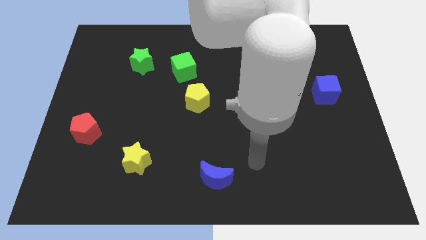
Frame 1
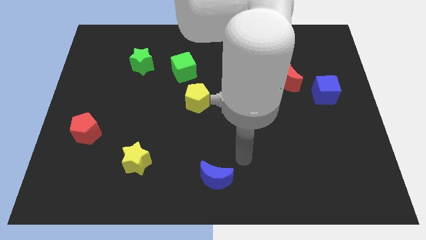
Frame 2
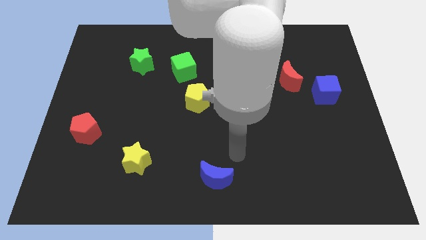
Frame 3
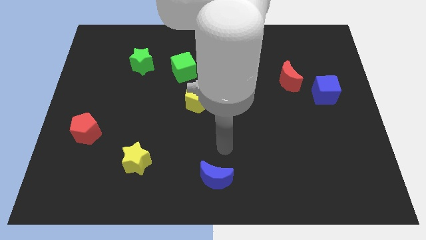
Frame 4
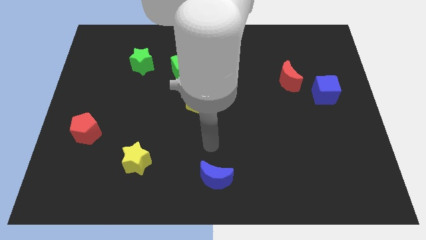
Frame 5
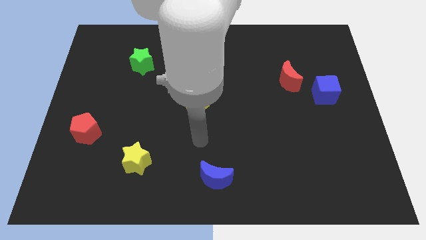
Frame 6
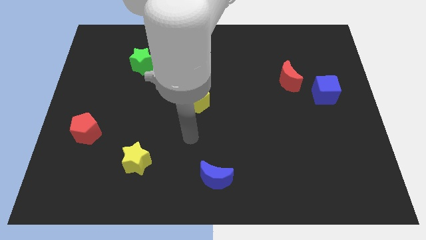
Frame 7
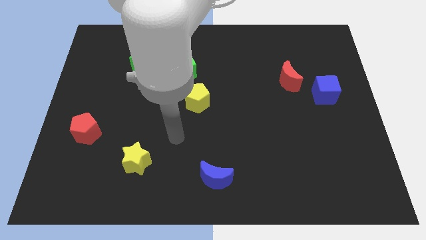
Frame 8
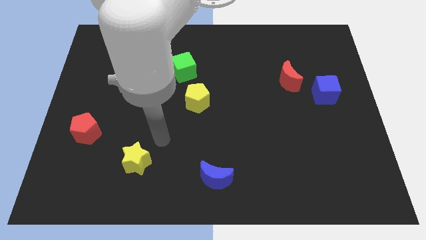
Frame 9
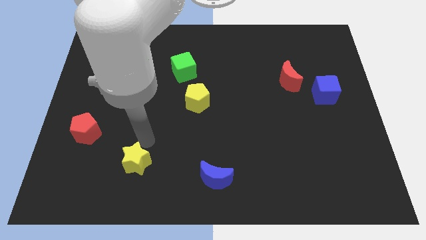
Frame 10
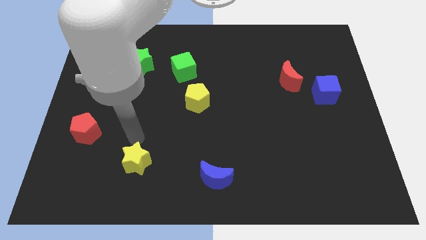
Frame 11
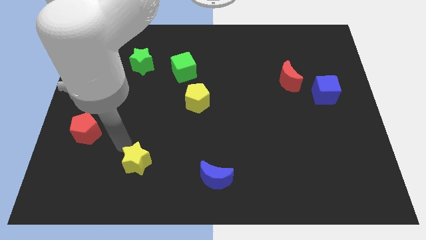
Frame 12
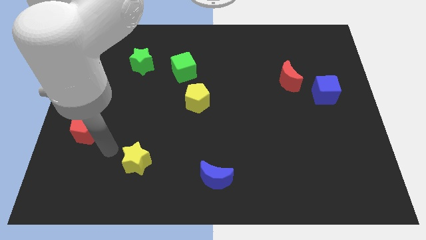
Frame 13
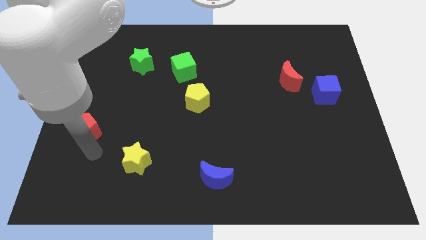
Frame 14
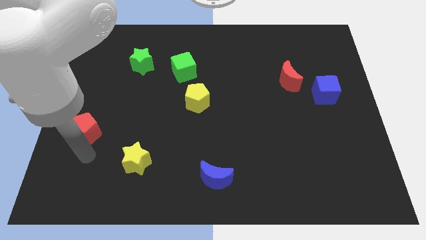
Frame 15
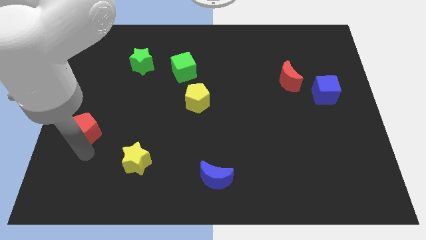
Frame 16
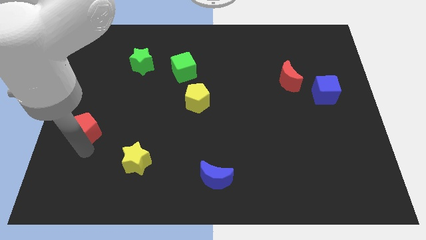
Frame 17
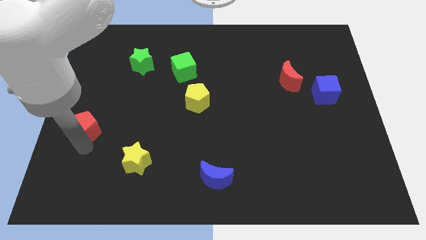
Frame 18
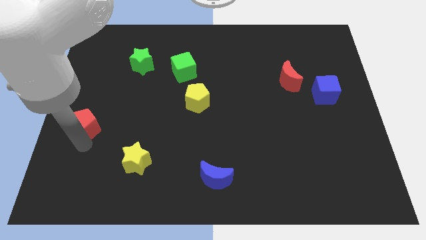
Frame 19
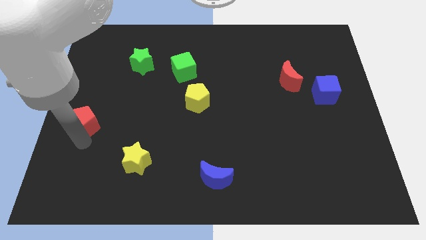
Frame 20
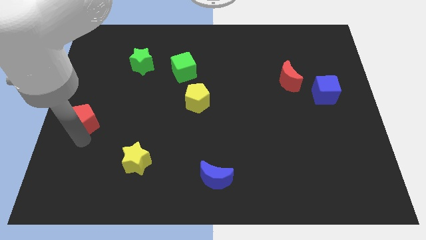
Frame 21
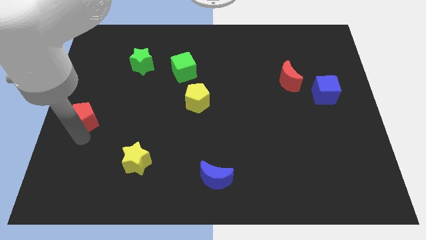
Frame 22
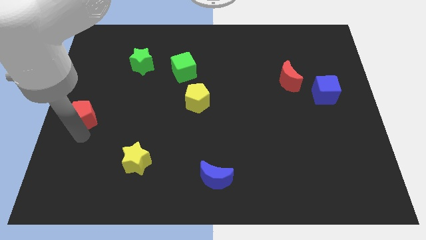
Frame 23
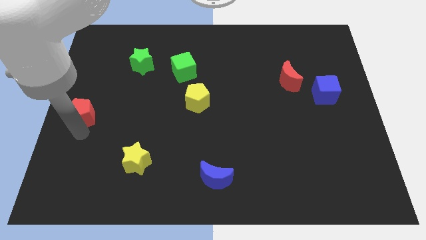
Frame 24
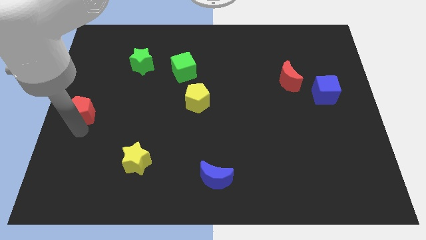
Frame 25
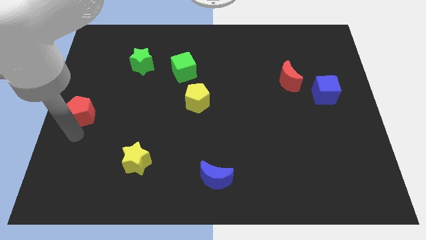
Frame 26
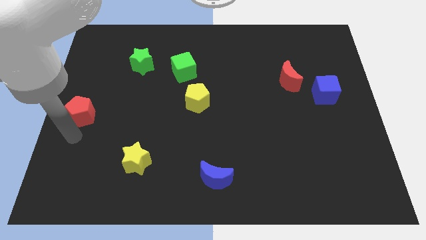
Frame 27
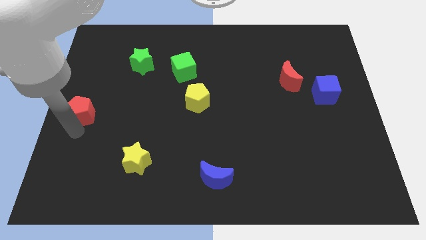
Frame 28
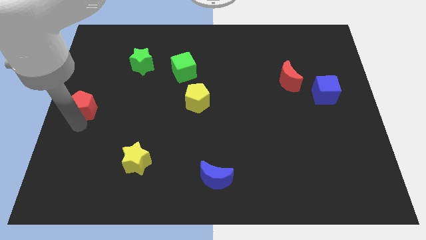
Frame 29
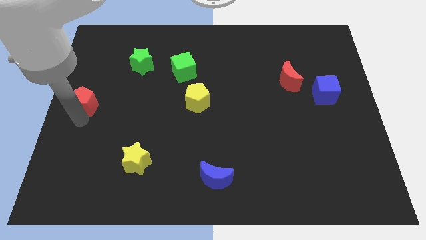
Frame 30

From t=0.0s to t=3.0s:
slide the red pentagon somewhat upwards

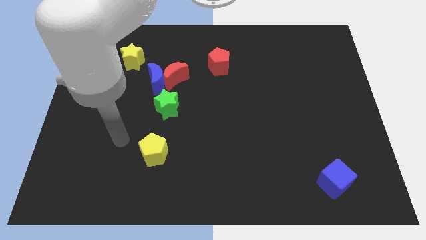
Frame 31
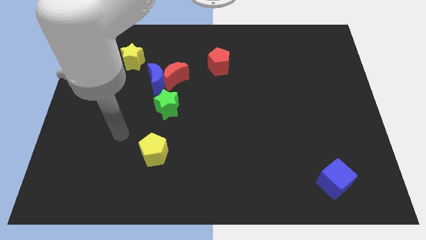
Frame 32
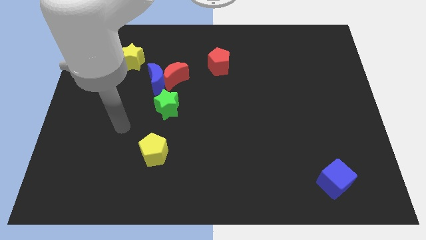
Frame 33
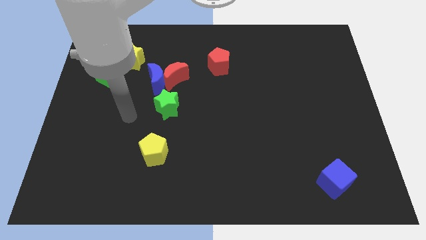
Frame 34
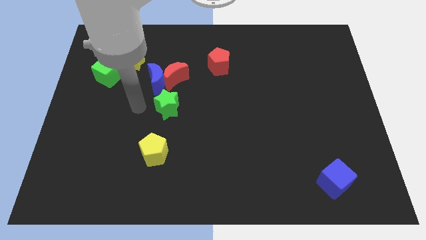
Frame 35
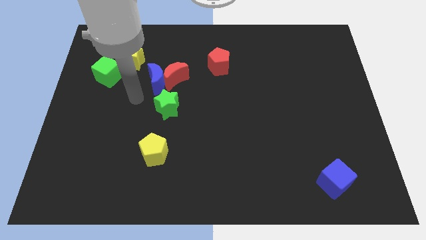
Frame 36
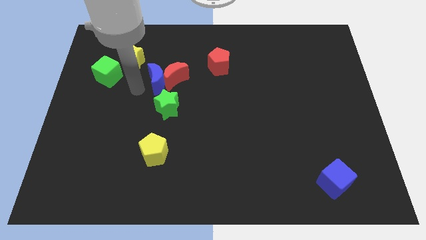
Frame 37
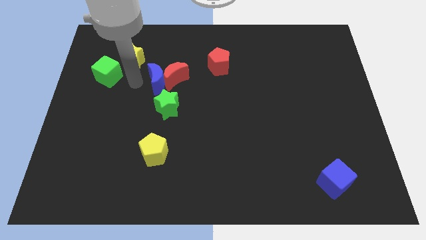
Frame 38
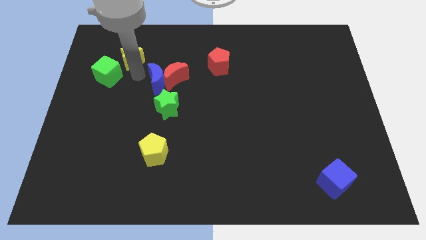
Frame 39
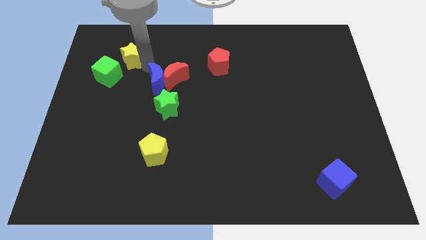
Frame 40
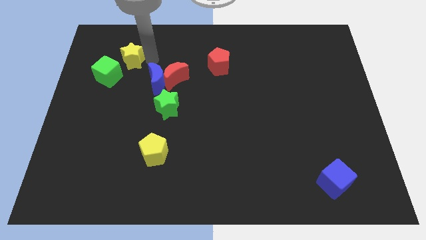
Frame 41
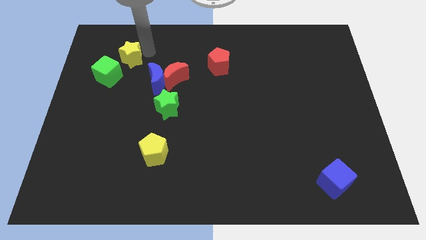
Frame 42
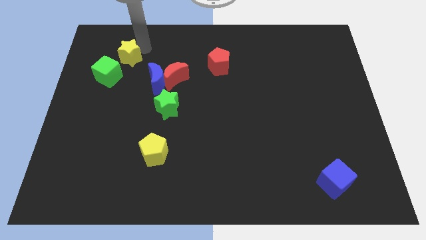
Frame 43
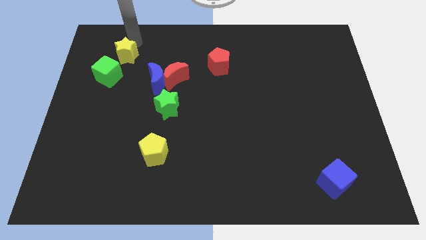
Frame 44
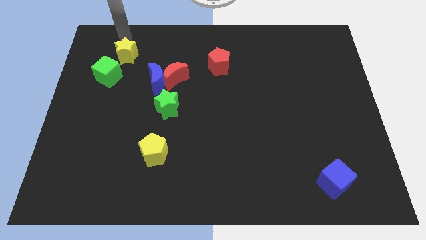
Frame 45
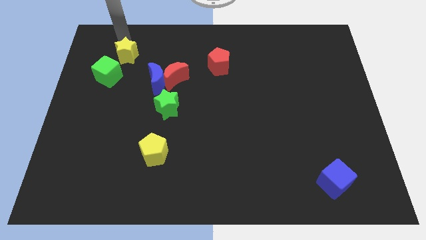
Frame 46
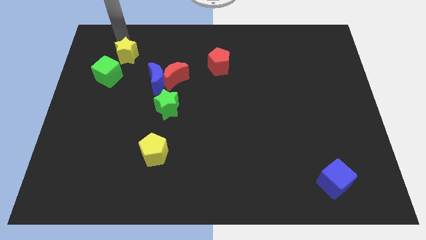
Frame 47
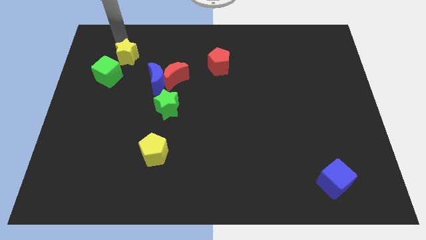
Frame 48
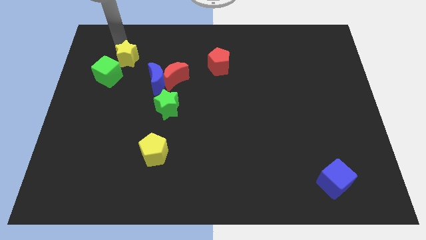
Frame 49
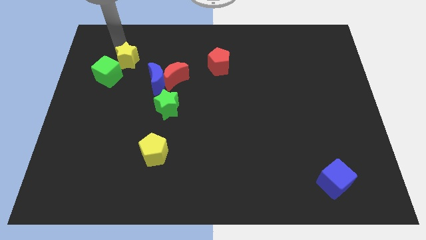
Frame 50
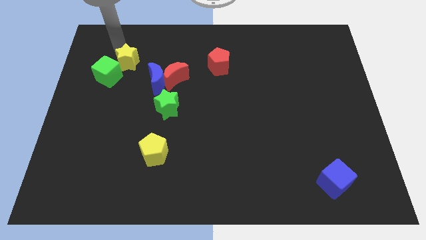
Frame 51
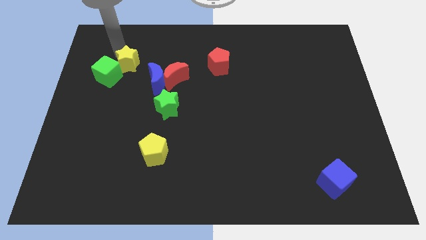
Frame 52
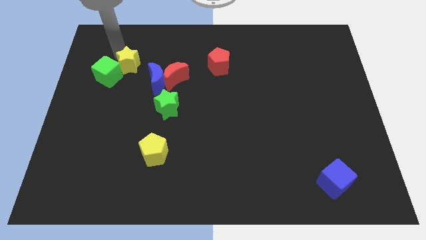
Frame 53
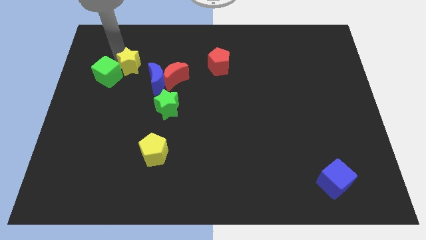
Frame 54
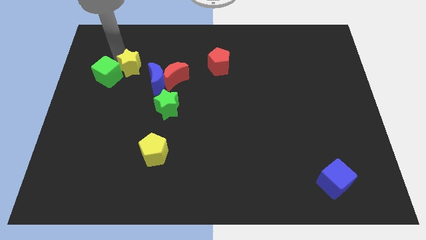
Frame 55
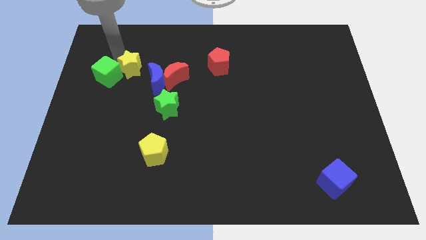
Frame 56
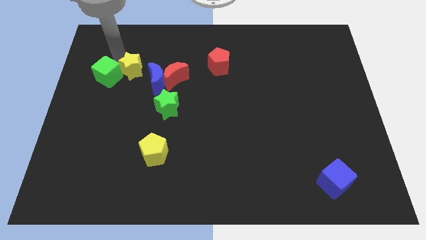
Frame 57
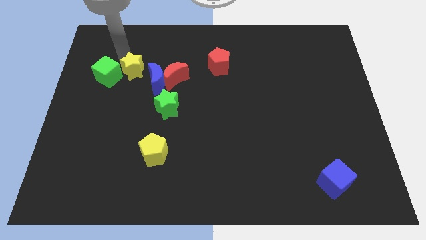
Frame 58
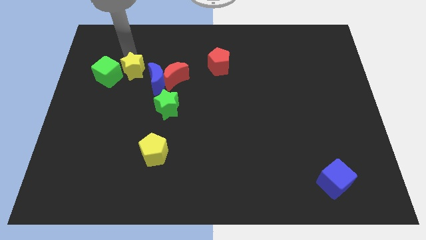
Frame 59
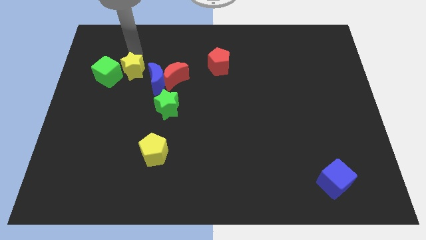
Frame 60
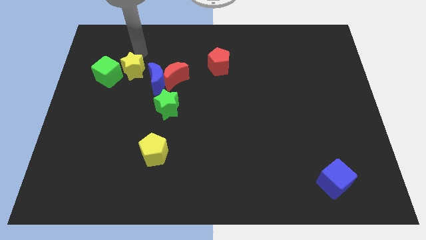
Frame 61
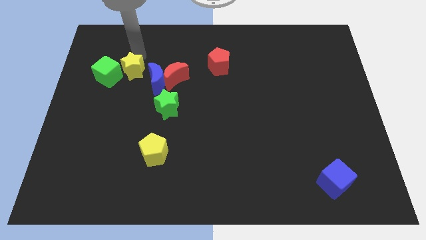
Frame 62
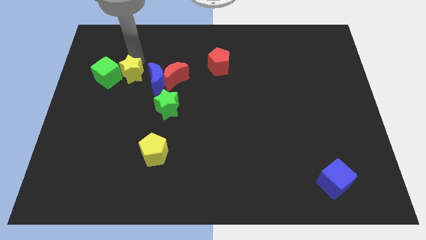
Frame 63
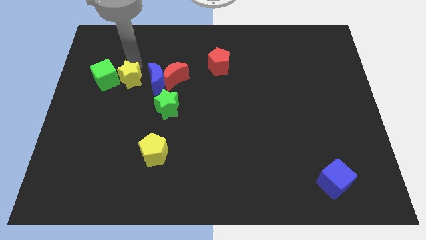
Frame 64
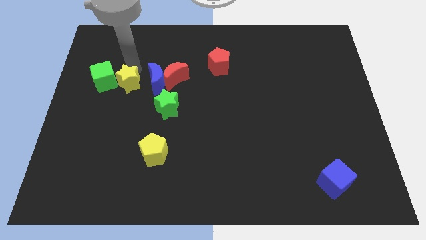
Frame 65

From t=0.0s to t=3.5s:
slide the yellow star downwards a bit

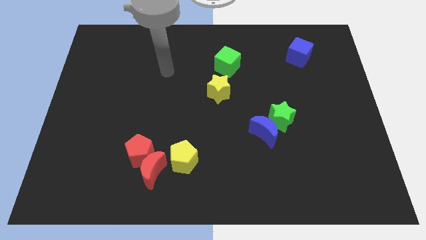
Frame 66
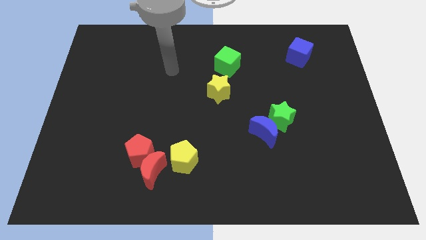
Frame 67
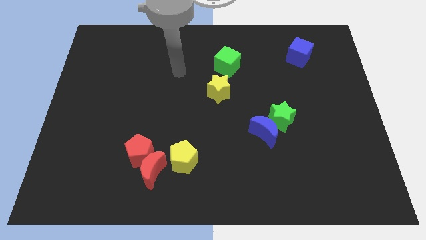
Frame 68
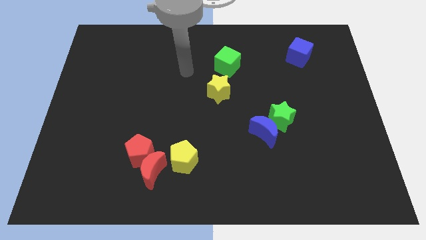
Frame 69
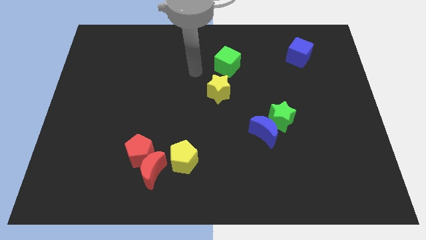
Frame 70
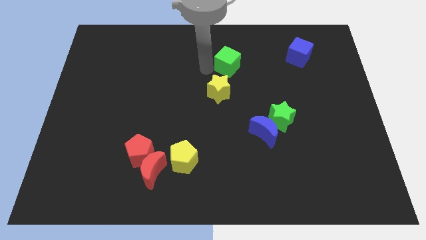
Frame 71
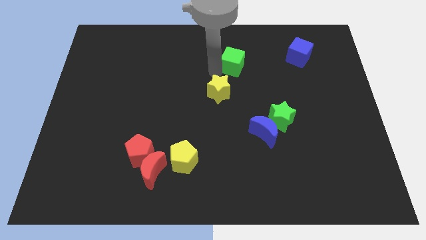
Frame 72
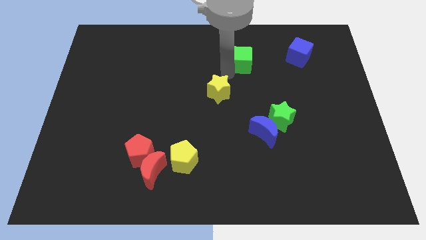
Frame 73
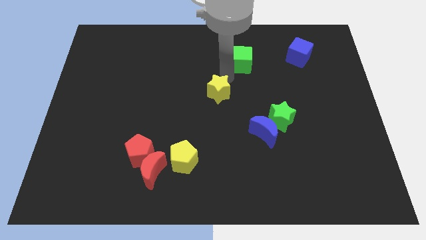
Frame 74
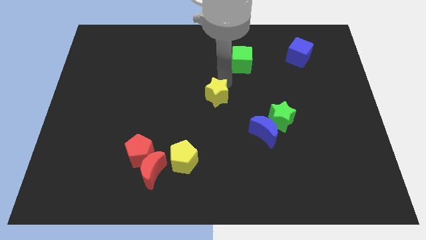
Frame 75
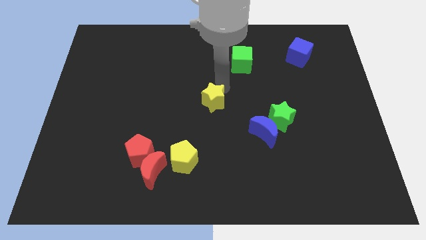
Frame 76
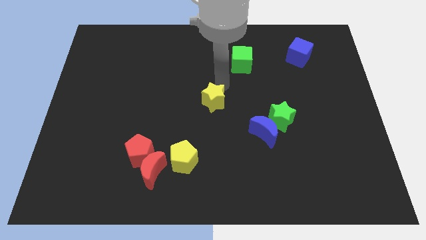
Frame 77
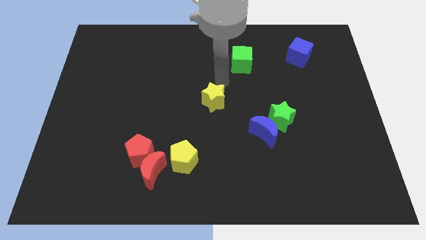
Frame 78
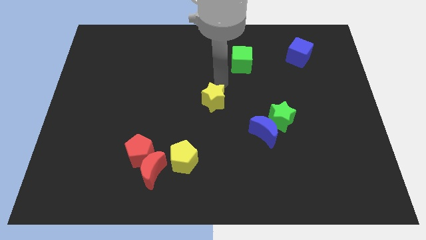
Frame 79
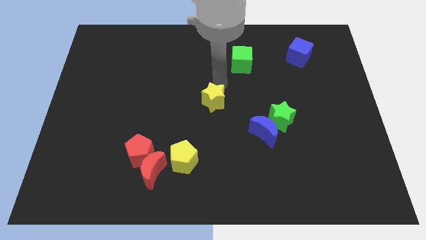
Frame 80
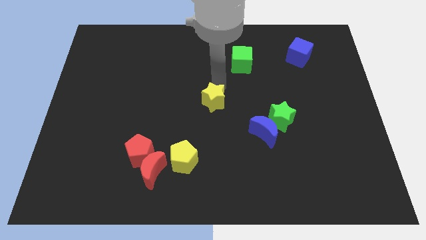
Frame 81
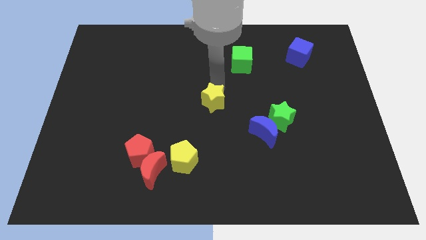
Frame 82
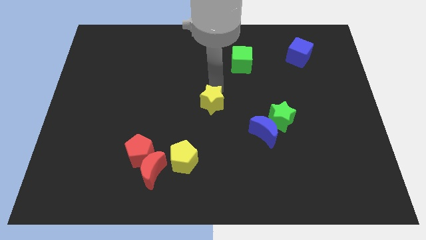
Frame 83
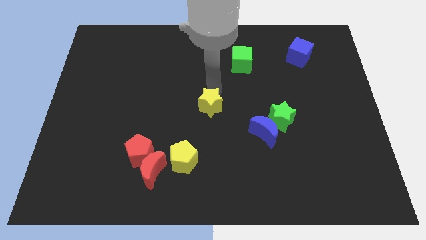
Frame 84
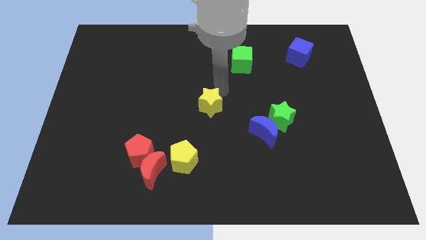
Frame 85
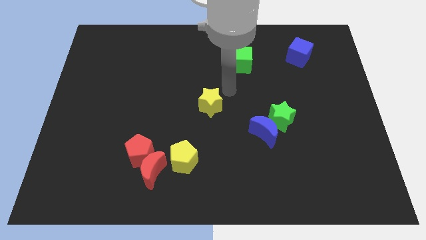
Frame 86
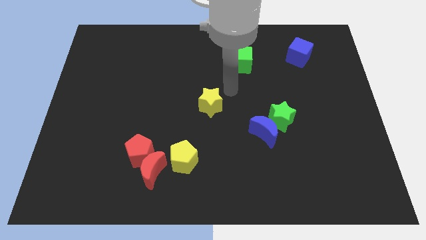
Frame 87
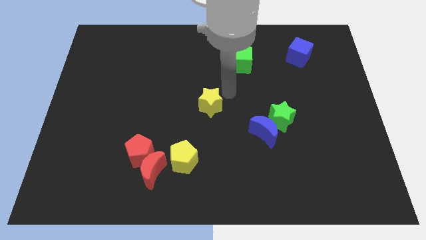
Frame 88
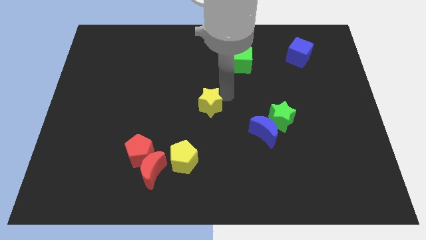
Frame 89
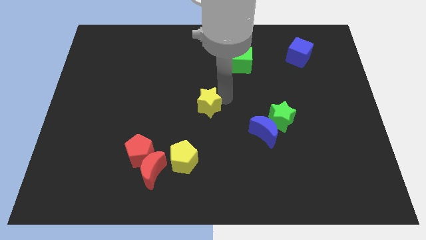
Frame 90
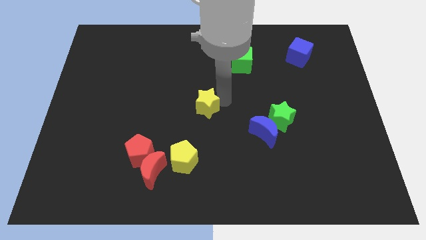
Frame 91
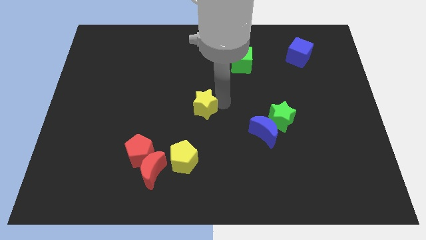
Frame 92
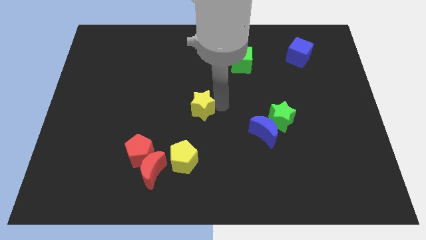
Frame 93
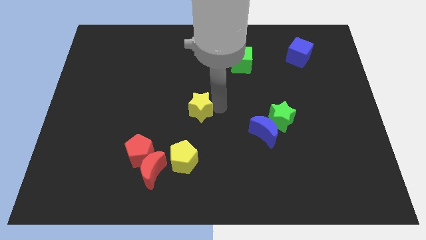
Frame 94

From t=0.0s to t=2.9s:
move the yellow star a little diagonally downwards and left
